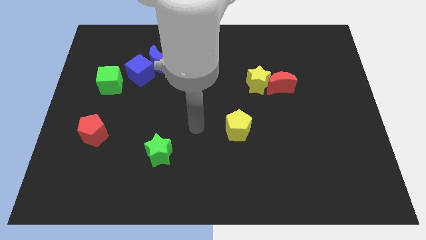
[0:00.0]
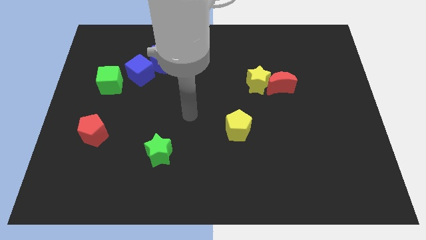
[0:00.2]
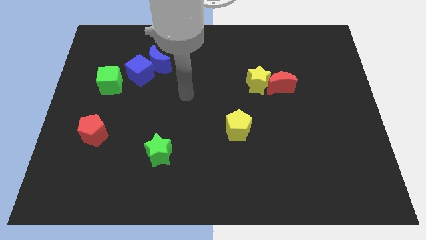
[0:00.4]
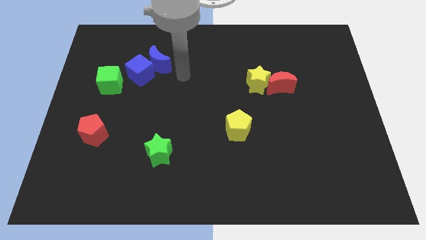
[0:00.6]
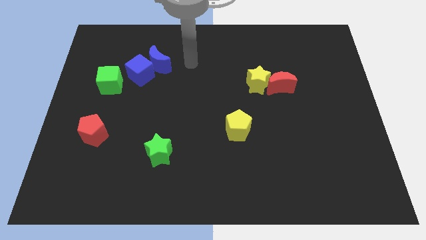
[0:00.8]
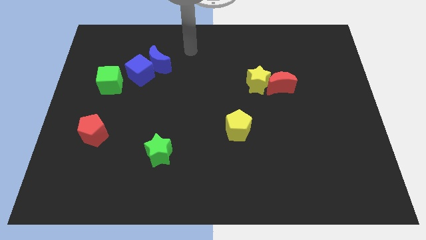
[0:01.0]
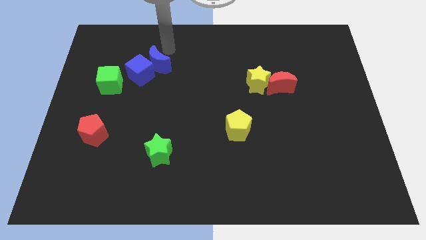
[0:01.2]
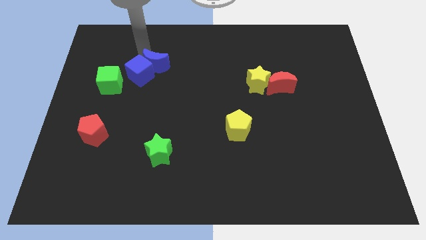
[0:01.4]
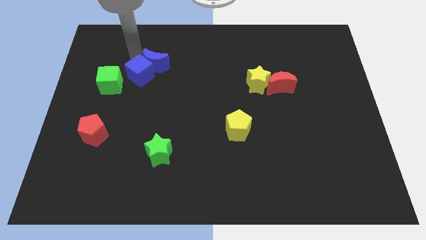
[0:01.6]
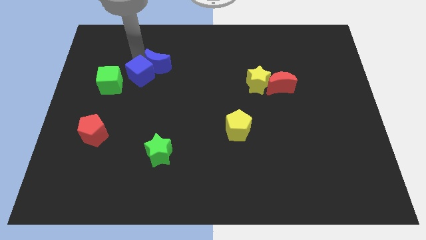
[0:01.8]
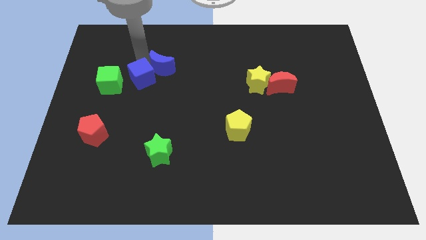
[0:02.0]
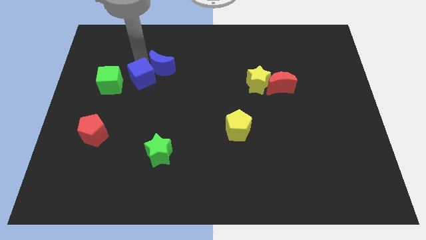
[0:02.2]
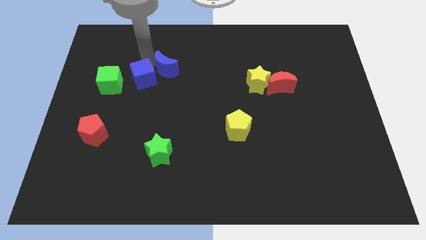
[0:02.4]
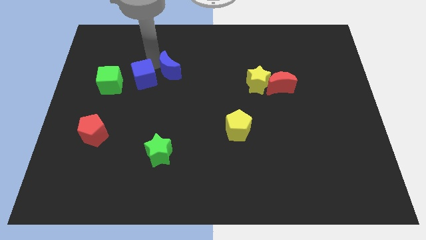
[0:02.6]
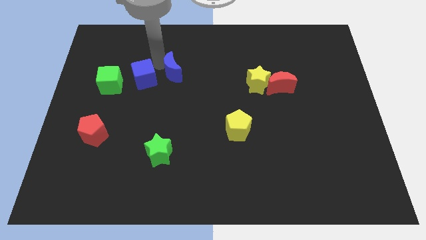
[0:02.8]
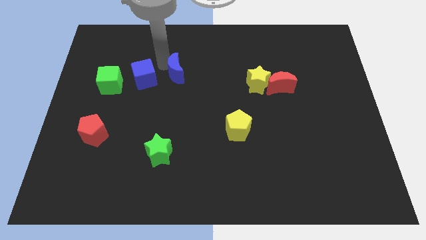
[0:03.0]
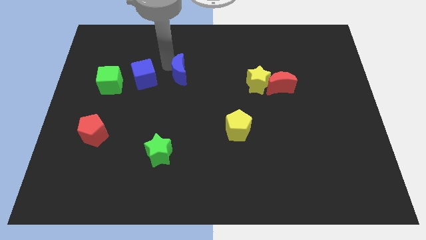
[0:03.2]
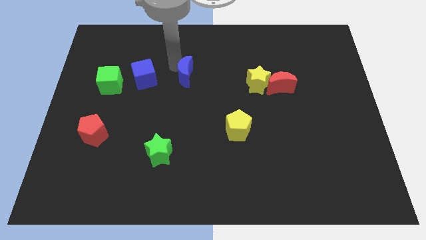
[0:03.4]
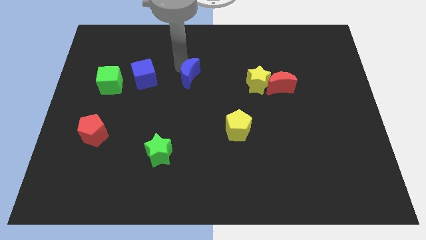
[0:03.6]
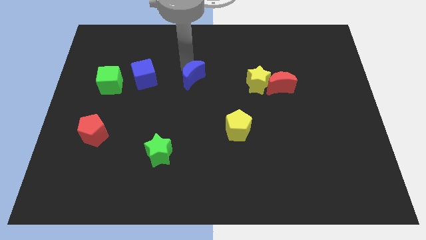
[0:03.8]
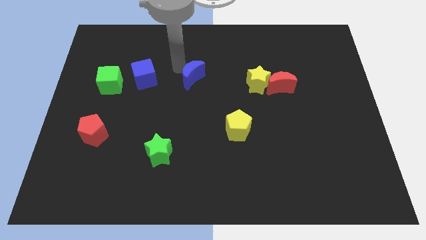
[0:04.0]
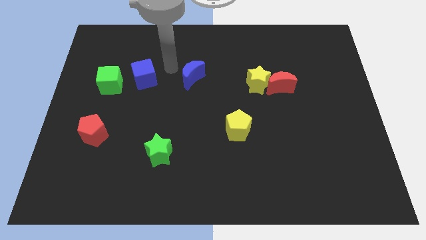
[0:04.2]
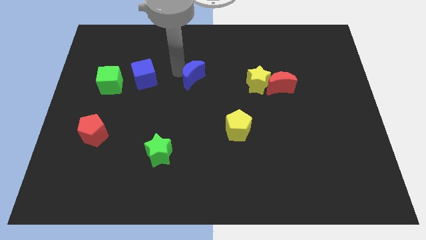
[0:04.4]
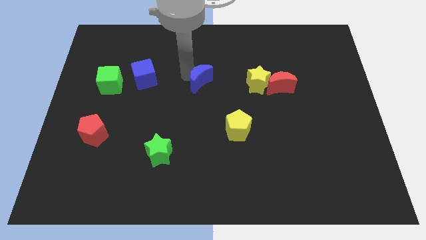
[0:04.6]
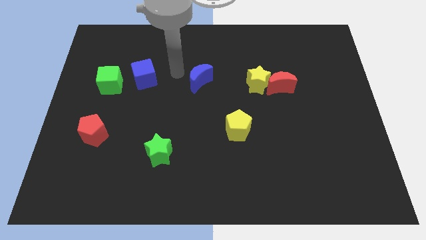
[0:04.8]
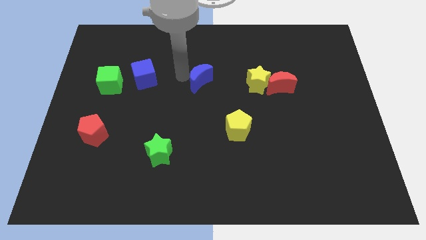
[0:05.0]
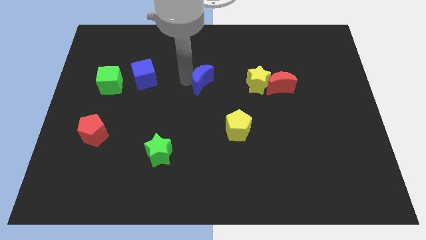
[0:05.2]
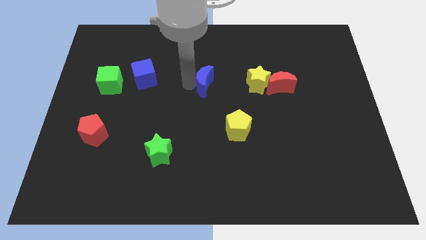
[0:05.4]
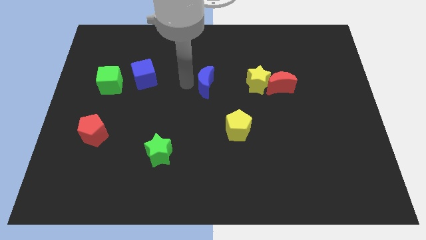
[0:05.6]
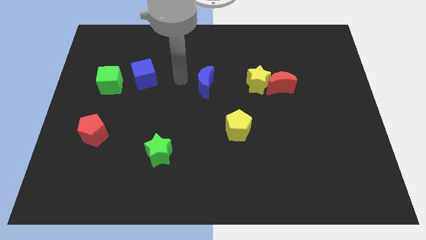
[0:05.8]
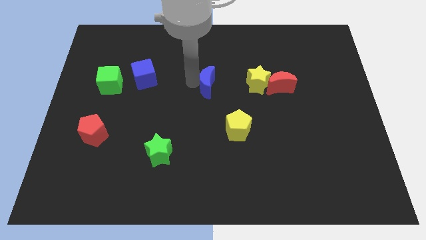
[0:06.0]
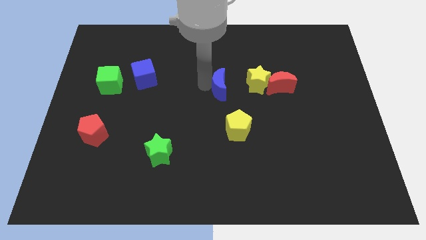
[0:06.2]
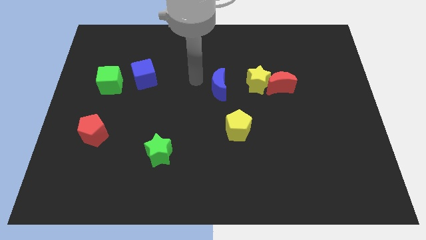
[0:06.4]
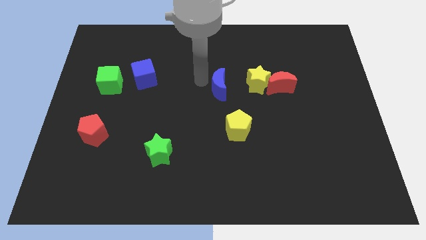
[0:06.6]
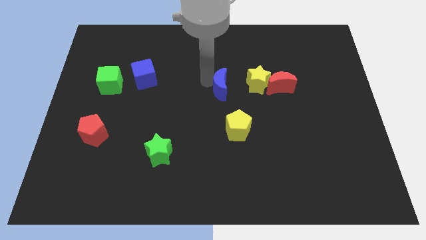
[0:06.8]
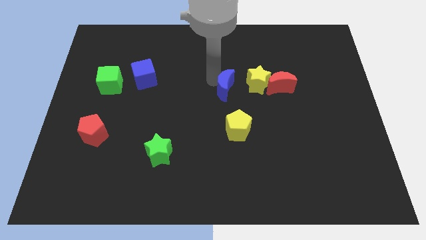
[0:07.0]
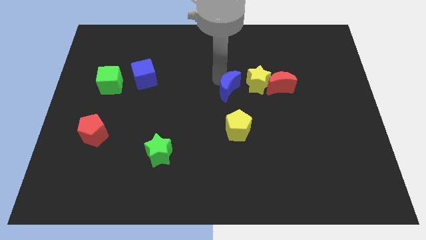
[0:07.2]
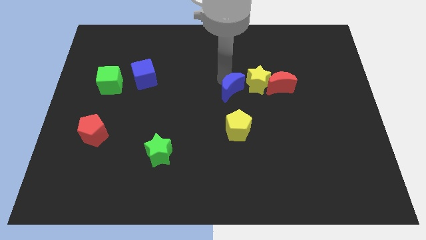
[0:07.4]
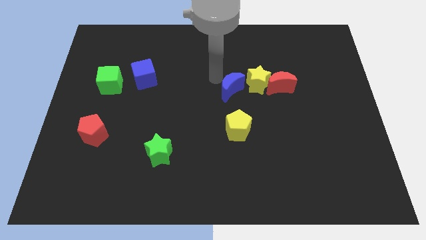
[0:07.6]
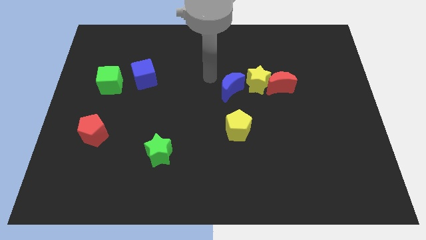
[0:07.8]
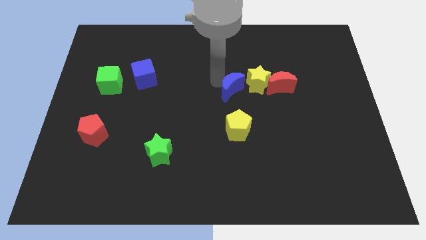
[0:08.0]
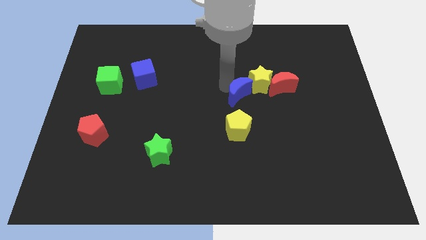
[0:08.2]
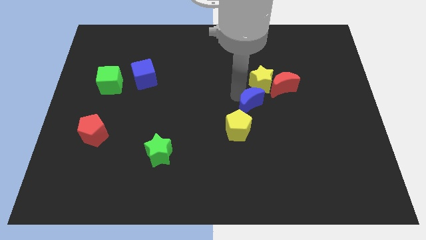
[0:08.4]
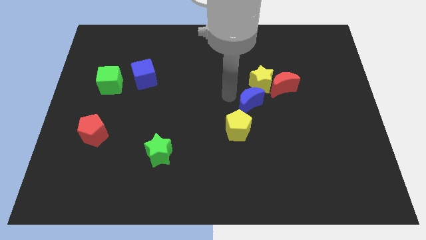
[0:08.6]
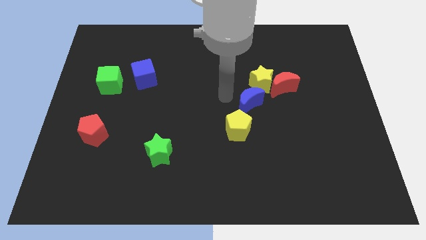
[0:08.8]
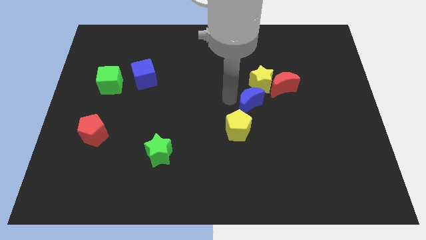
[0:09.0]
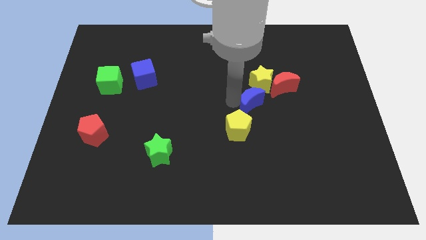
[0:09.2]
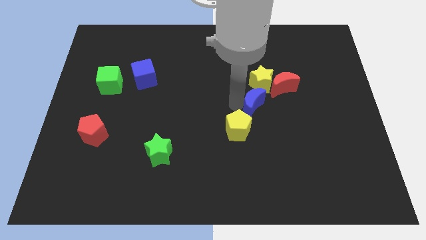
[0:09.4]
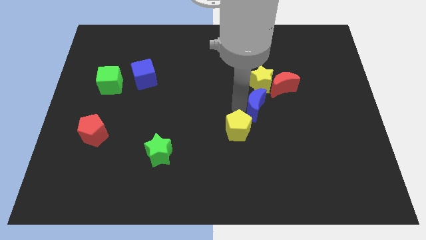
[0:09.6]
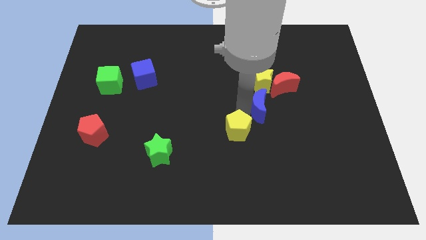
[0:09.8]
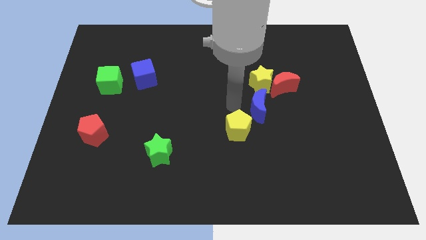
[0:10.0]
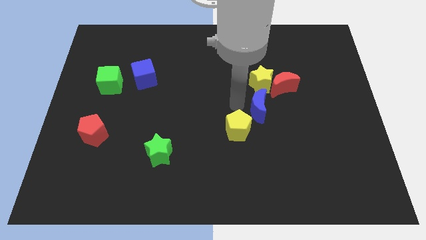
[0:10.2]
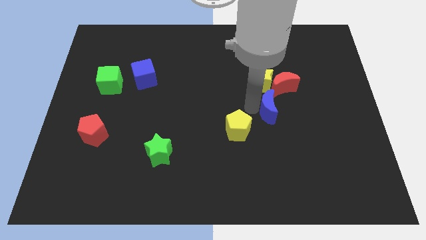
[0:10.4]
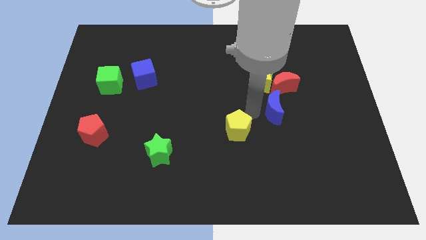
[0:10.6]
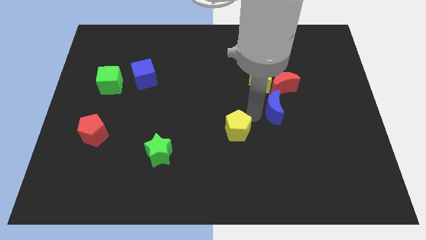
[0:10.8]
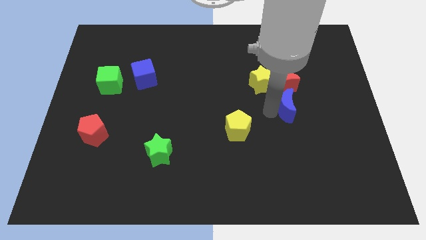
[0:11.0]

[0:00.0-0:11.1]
push the blue moon to the bottom right side of the red moon

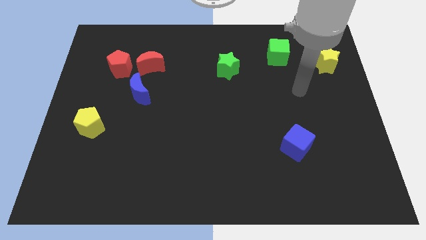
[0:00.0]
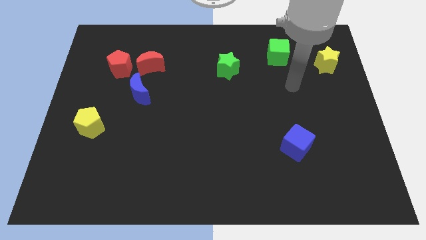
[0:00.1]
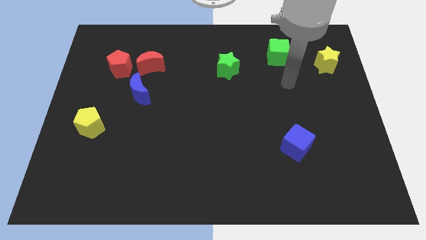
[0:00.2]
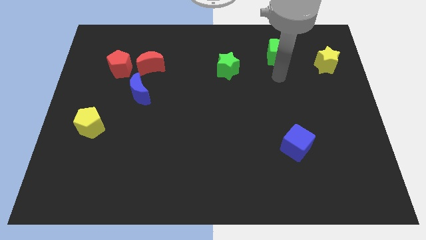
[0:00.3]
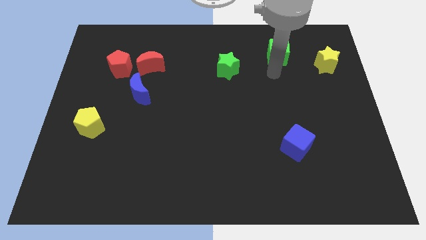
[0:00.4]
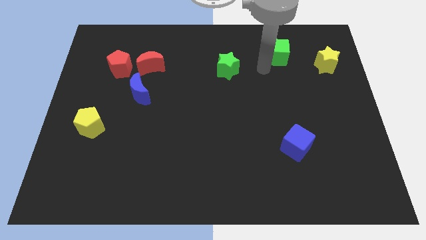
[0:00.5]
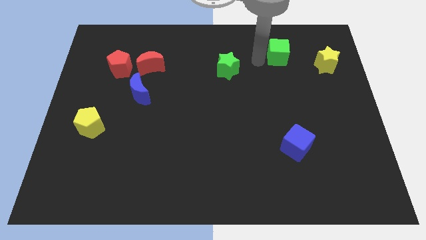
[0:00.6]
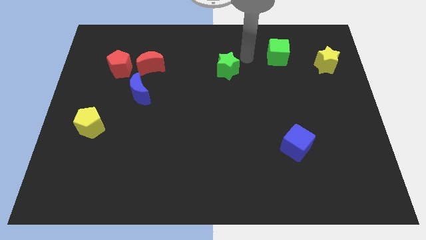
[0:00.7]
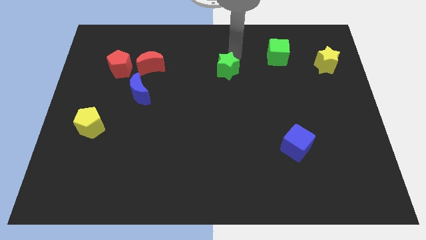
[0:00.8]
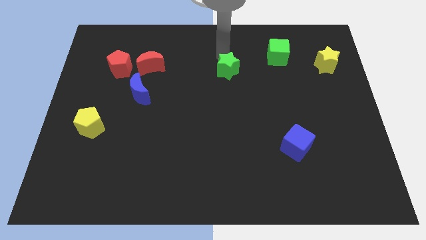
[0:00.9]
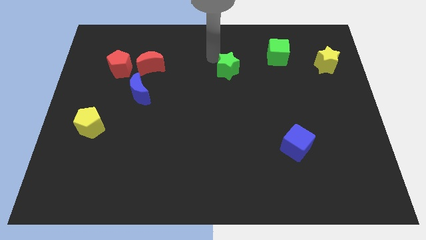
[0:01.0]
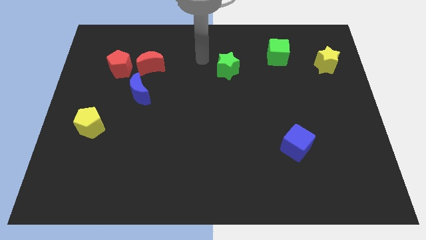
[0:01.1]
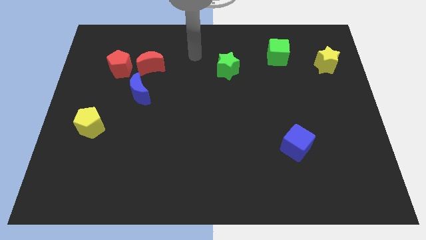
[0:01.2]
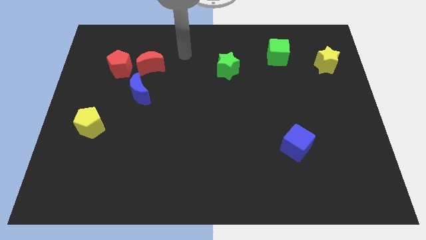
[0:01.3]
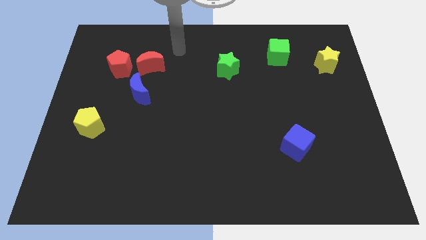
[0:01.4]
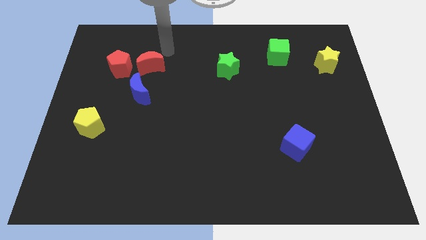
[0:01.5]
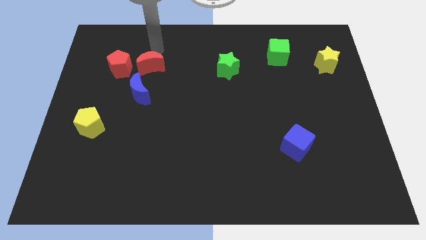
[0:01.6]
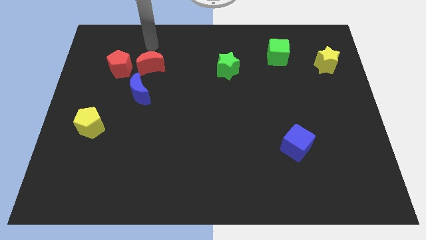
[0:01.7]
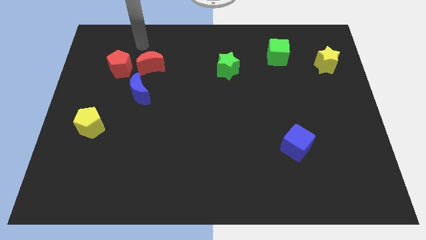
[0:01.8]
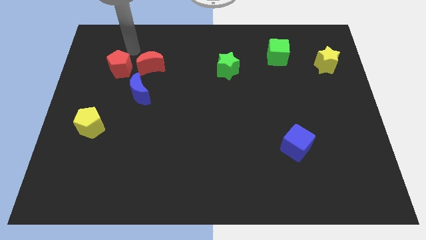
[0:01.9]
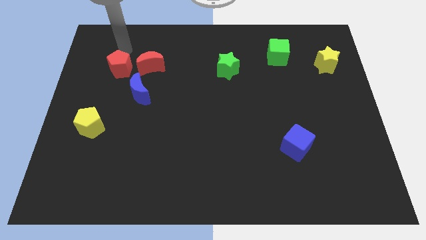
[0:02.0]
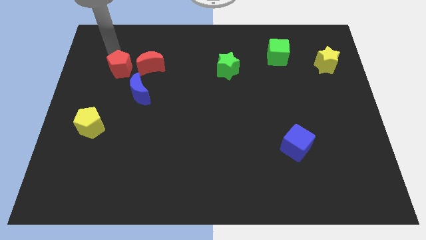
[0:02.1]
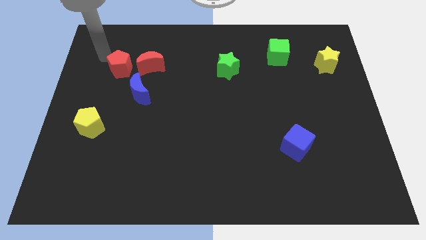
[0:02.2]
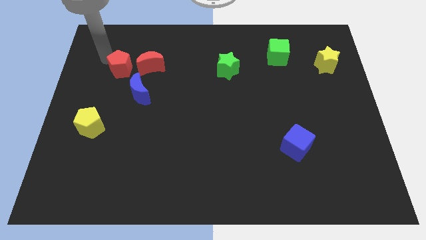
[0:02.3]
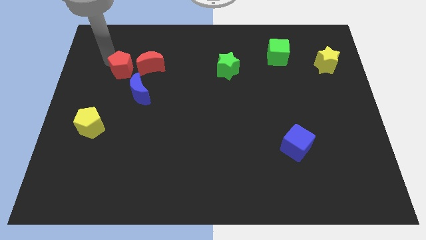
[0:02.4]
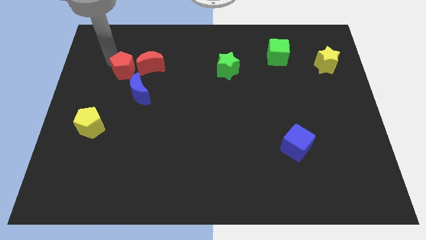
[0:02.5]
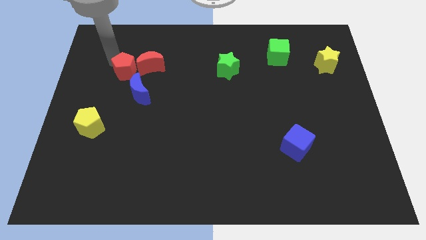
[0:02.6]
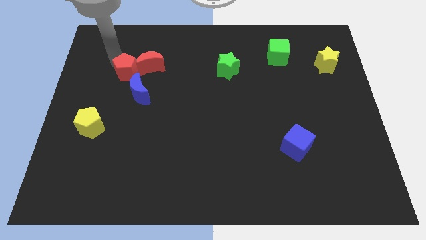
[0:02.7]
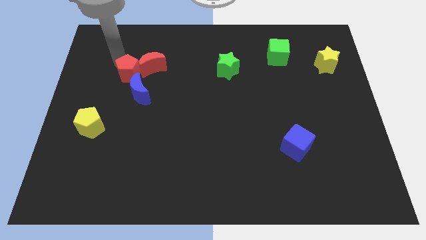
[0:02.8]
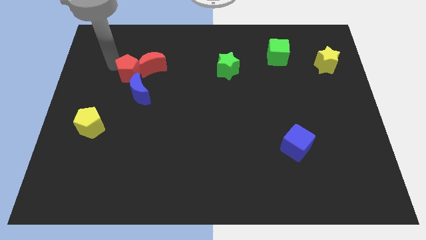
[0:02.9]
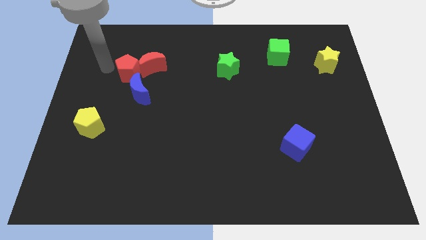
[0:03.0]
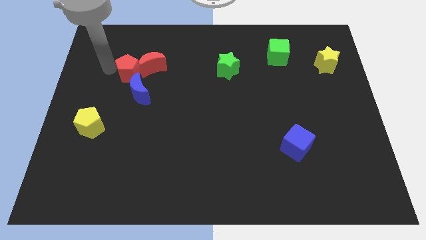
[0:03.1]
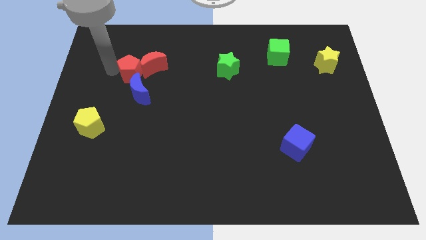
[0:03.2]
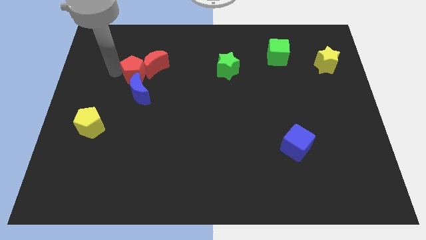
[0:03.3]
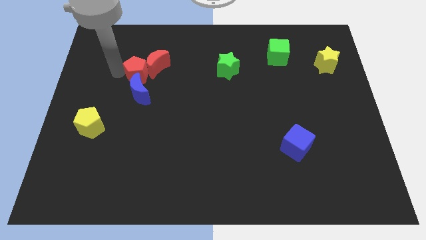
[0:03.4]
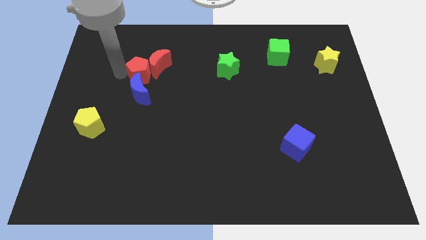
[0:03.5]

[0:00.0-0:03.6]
push the red pentagon to the top right side of the blue moon
